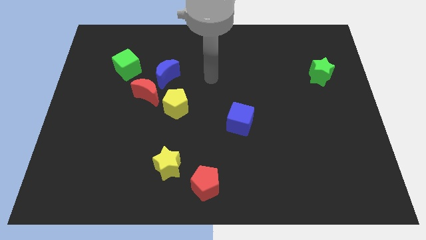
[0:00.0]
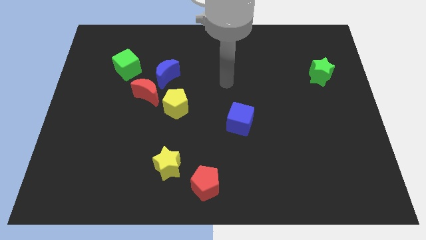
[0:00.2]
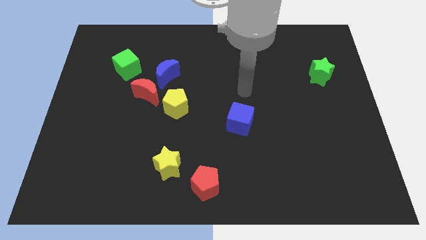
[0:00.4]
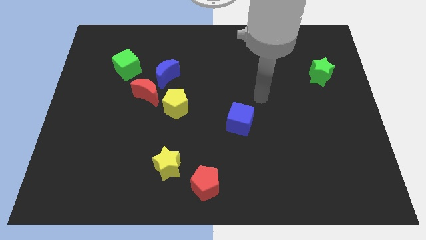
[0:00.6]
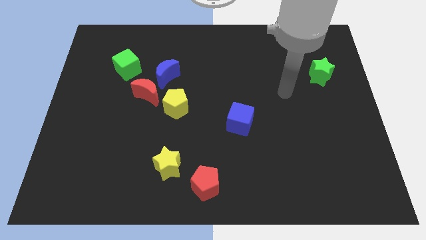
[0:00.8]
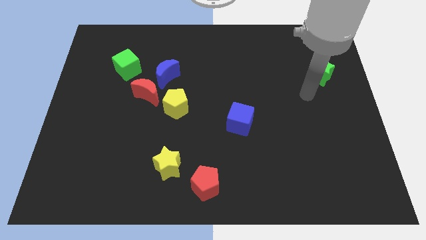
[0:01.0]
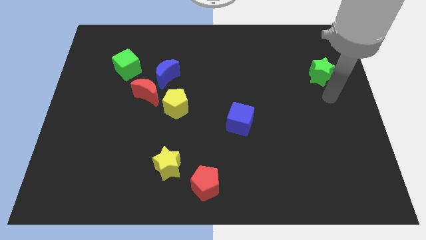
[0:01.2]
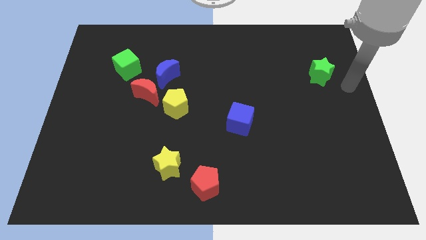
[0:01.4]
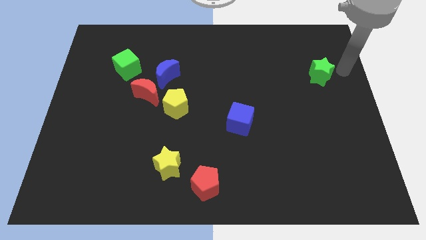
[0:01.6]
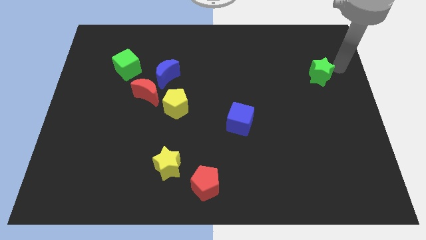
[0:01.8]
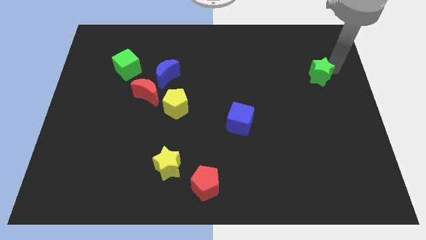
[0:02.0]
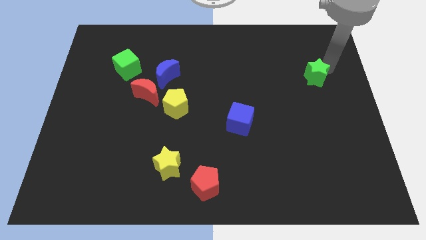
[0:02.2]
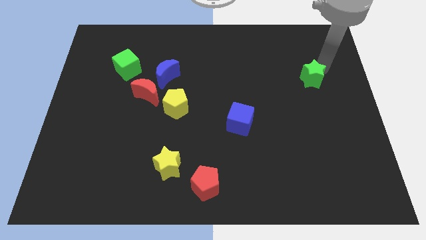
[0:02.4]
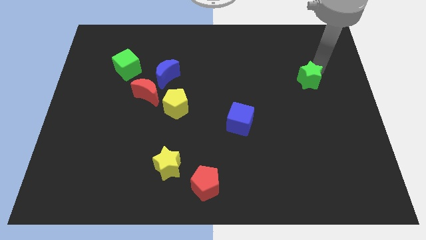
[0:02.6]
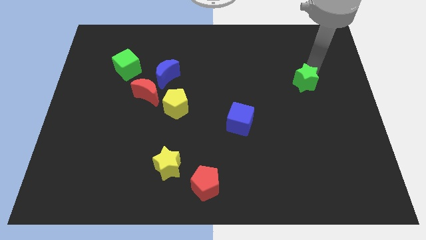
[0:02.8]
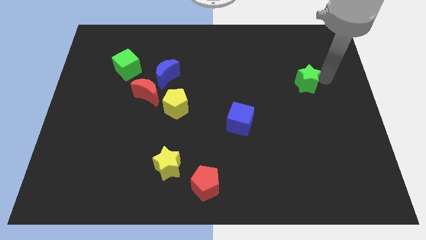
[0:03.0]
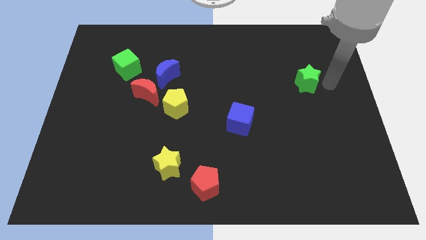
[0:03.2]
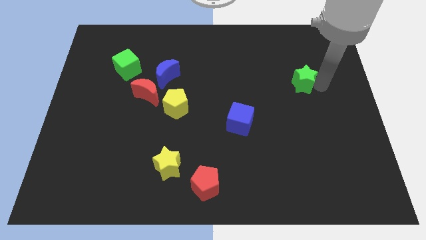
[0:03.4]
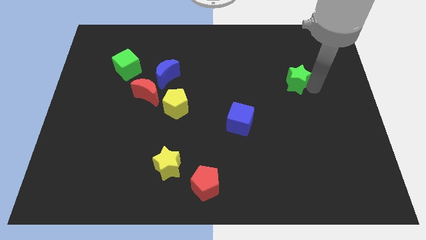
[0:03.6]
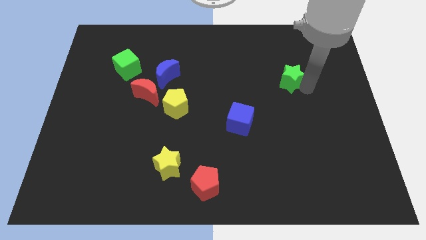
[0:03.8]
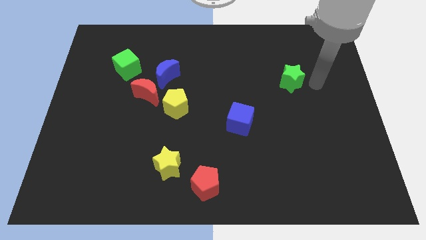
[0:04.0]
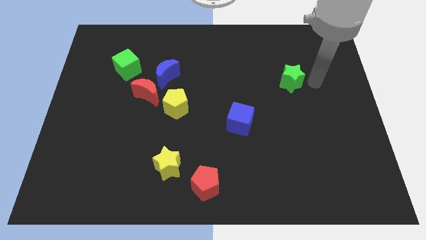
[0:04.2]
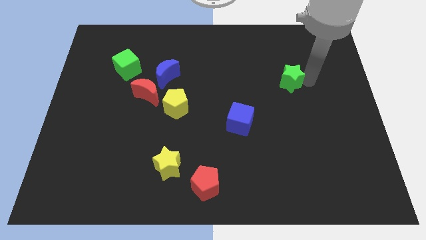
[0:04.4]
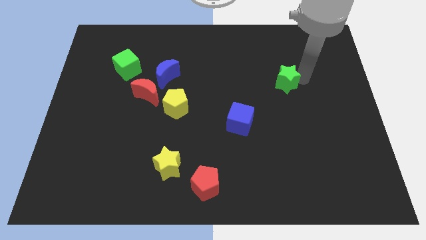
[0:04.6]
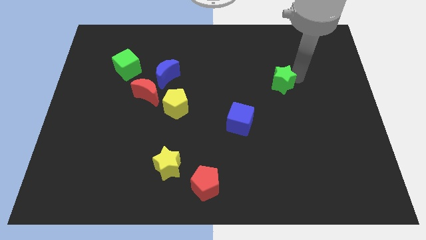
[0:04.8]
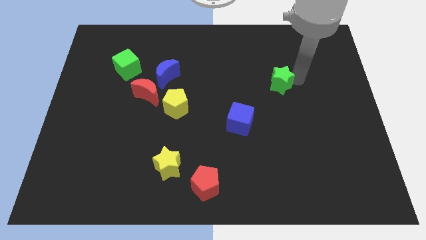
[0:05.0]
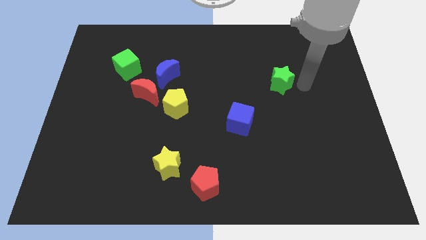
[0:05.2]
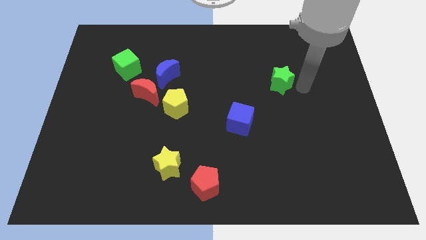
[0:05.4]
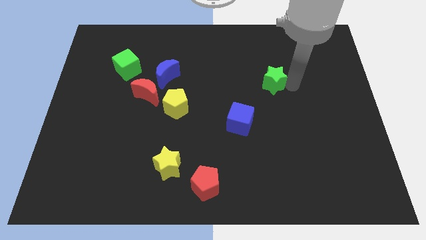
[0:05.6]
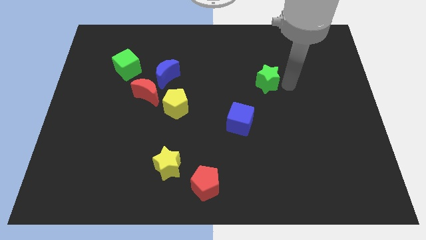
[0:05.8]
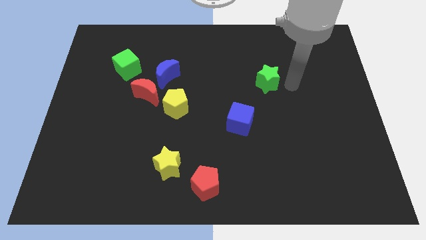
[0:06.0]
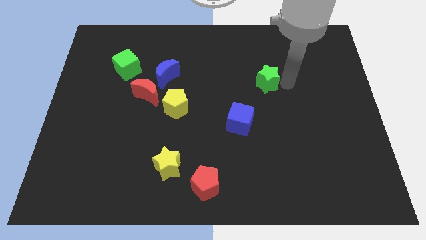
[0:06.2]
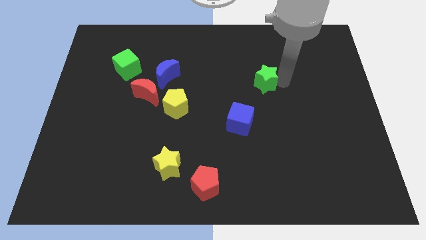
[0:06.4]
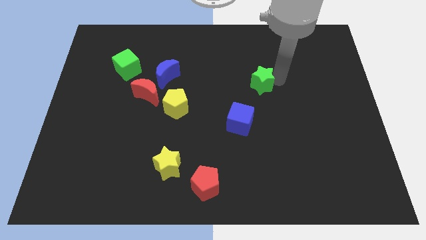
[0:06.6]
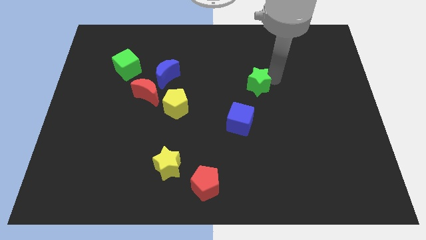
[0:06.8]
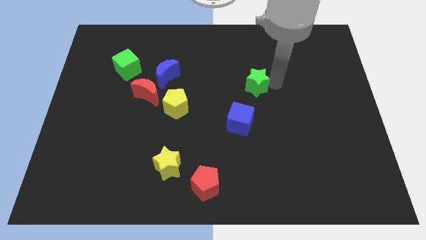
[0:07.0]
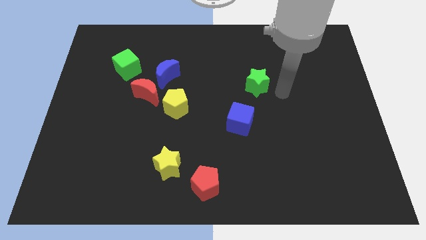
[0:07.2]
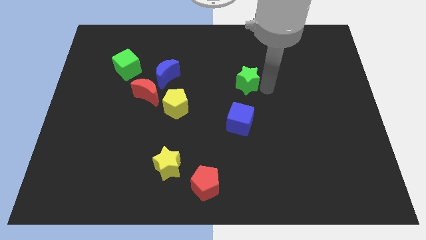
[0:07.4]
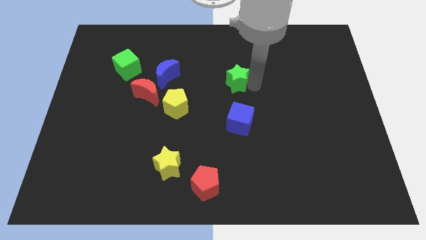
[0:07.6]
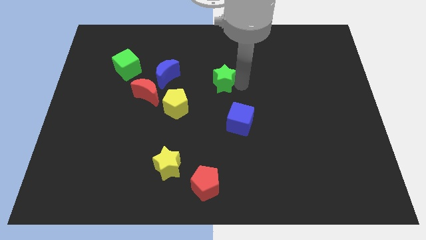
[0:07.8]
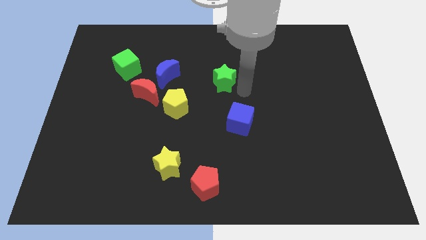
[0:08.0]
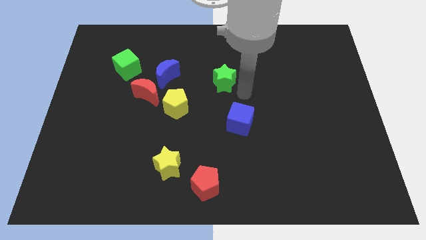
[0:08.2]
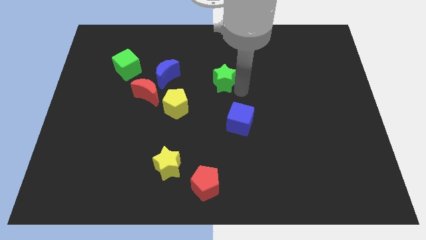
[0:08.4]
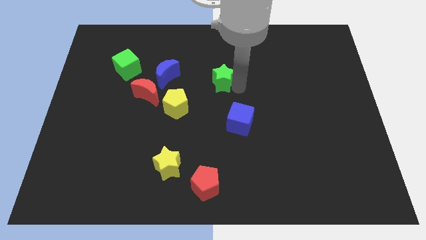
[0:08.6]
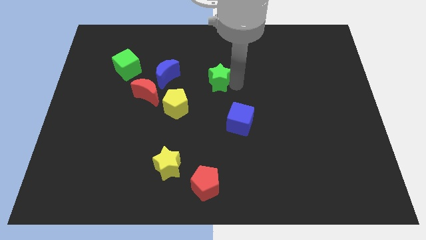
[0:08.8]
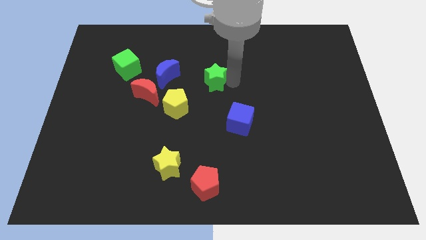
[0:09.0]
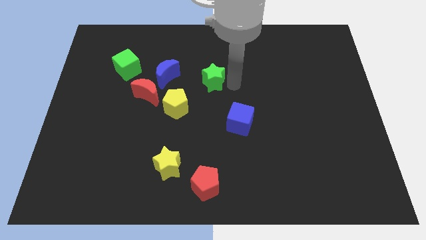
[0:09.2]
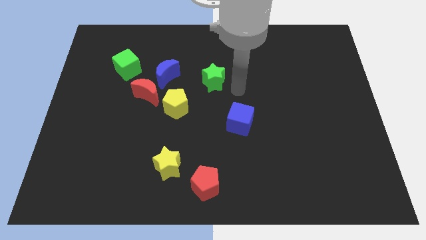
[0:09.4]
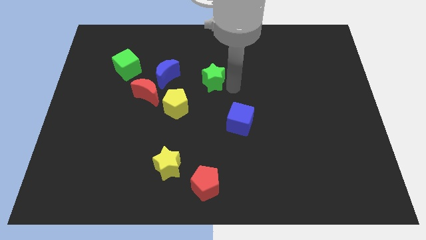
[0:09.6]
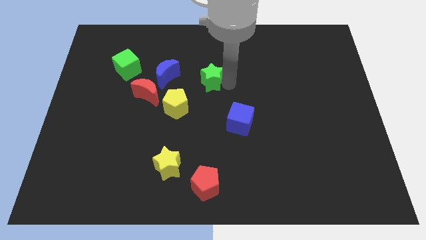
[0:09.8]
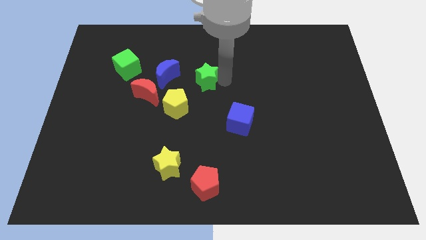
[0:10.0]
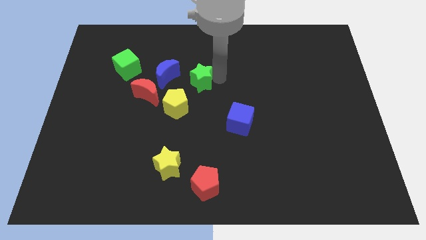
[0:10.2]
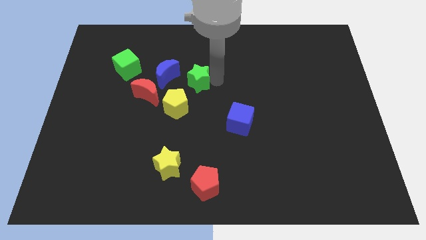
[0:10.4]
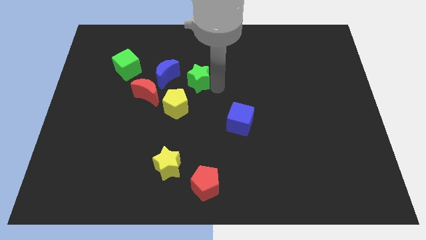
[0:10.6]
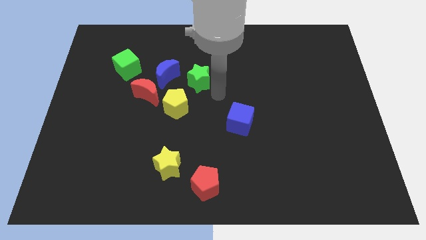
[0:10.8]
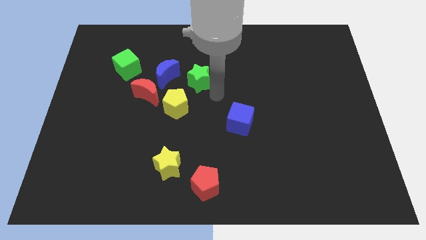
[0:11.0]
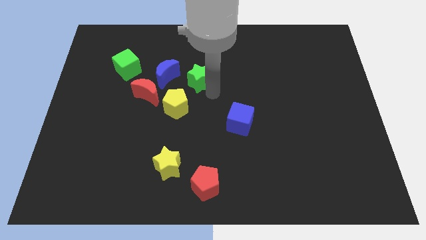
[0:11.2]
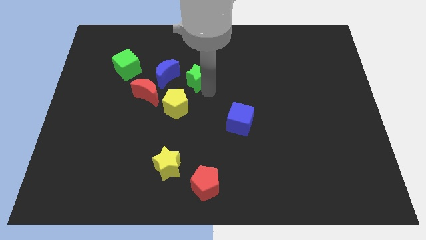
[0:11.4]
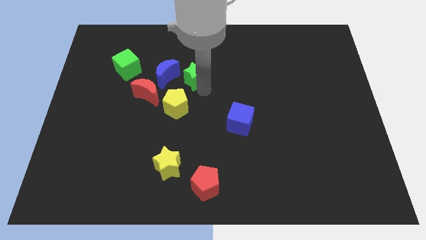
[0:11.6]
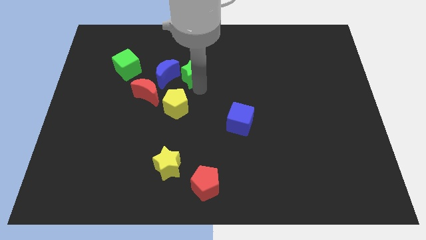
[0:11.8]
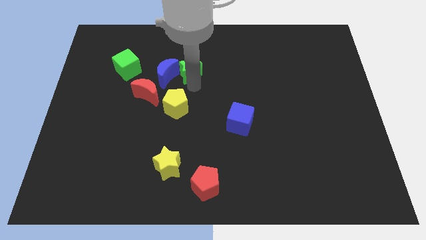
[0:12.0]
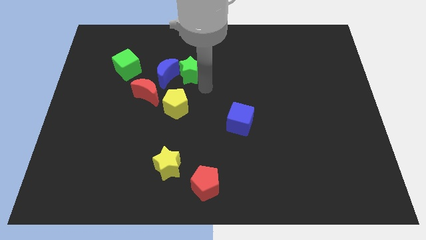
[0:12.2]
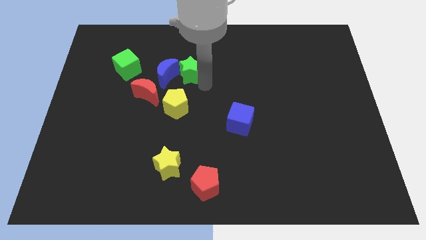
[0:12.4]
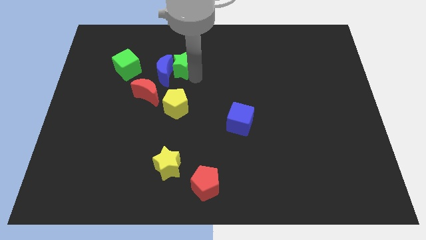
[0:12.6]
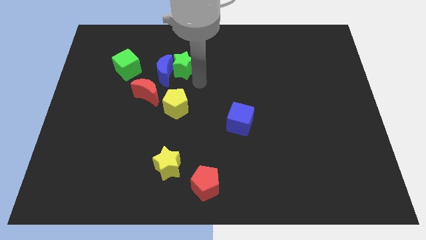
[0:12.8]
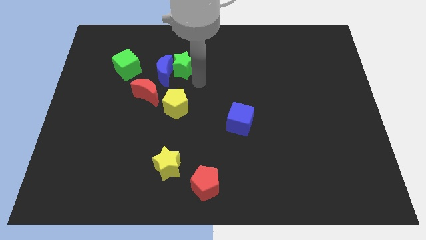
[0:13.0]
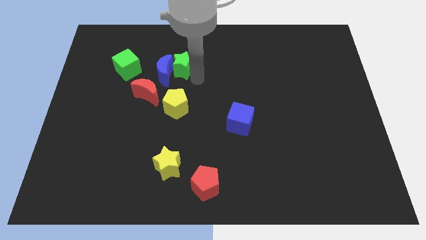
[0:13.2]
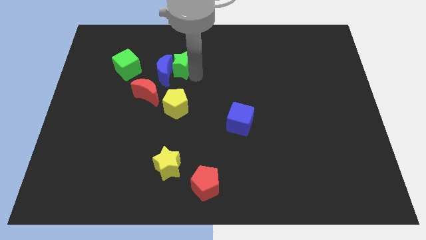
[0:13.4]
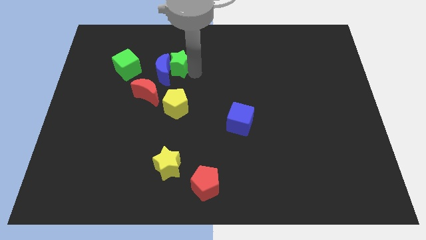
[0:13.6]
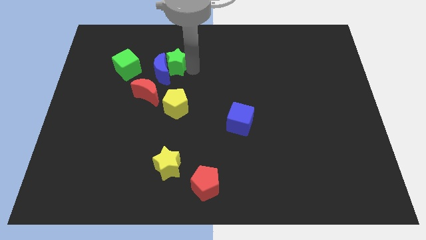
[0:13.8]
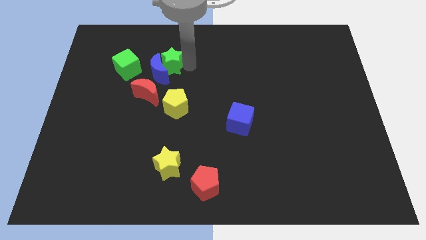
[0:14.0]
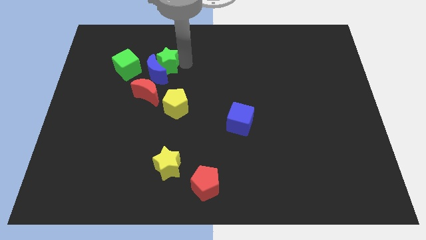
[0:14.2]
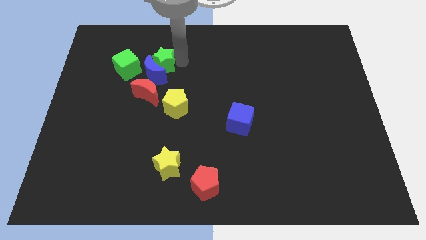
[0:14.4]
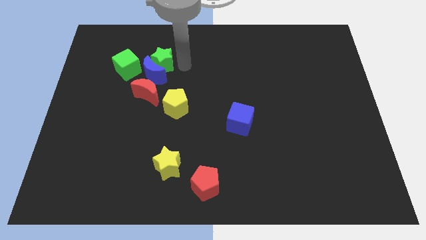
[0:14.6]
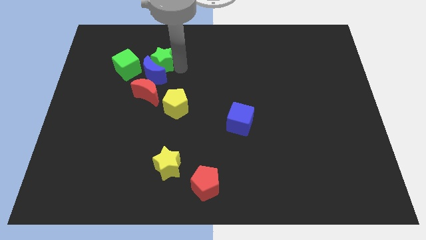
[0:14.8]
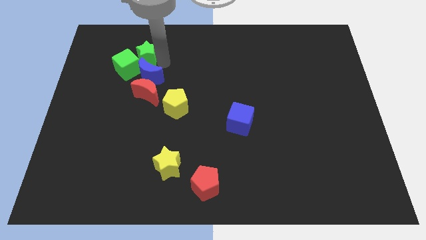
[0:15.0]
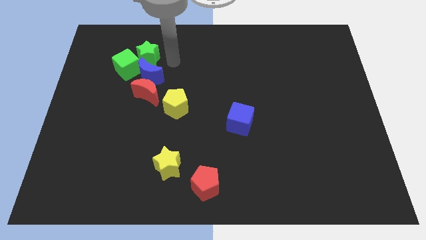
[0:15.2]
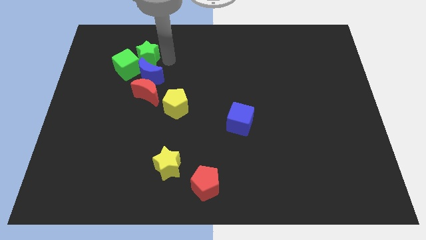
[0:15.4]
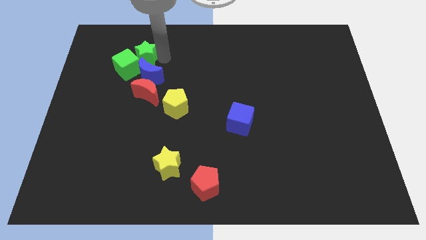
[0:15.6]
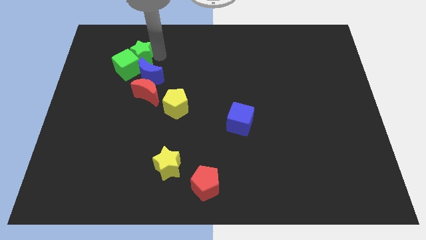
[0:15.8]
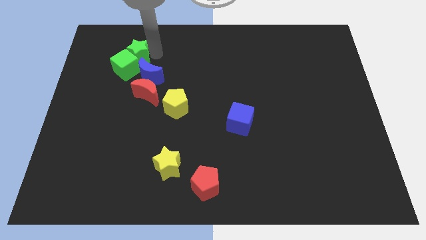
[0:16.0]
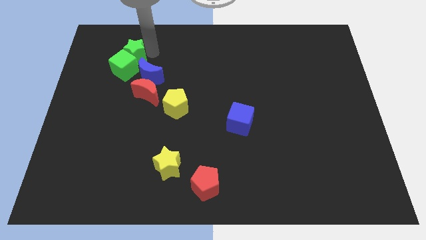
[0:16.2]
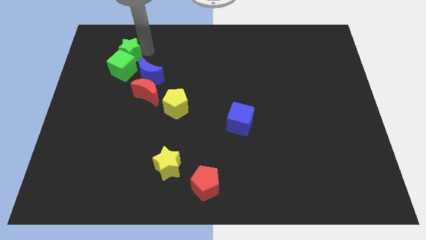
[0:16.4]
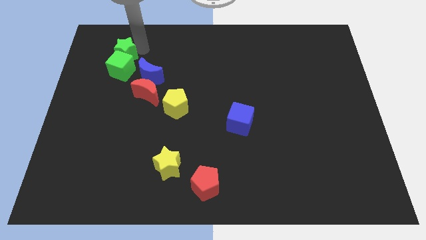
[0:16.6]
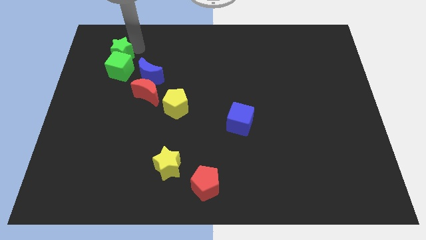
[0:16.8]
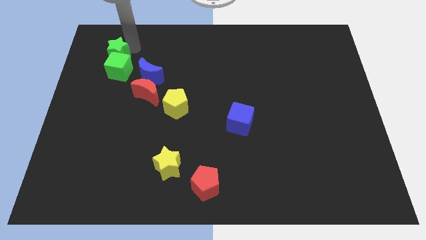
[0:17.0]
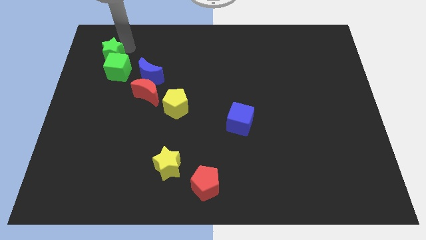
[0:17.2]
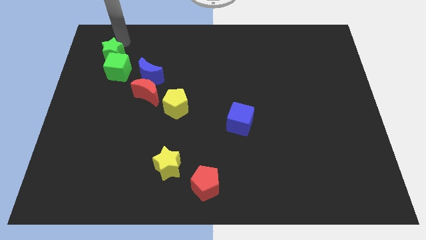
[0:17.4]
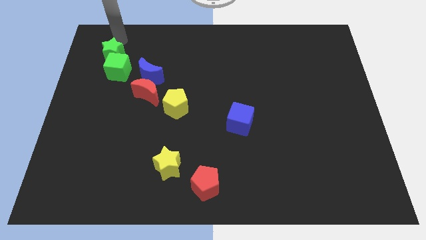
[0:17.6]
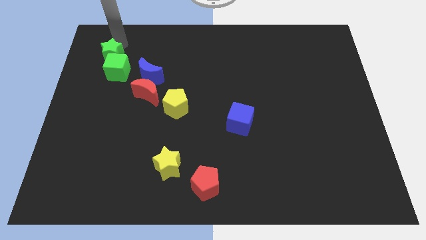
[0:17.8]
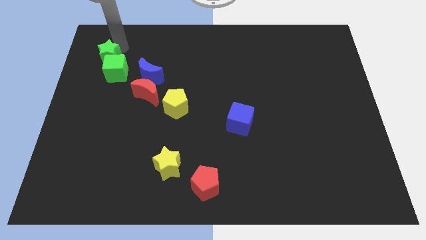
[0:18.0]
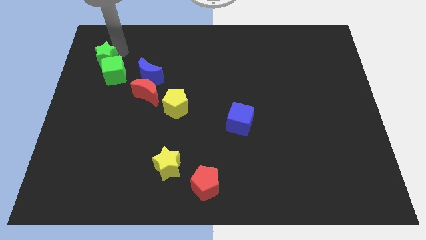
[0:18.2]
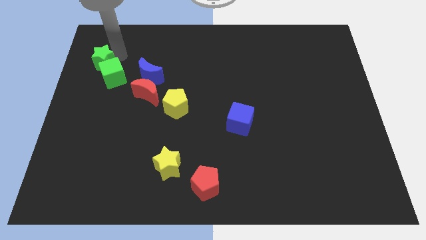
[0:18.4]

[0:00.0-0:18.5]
slide the green star left of the blue moon
